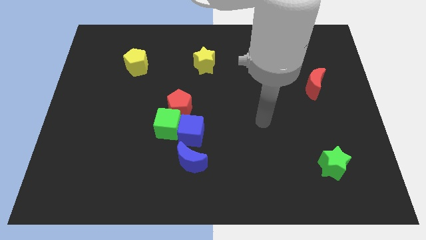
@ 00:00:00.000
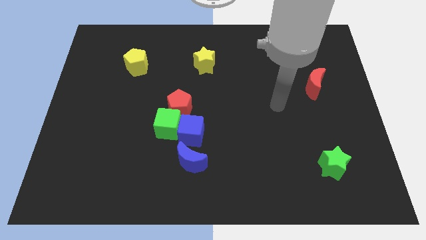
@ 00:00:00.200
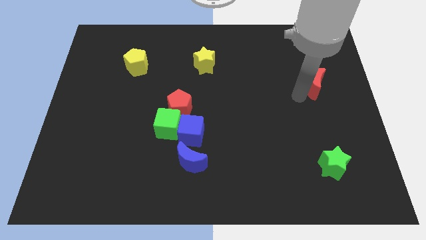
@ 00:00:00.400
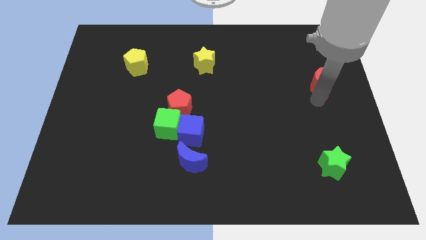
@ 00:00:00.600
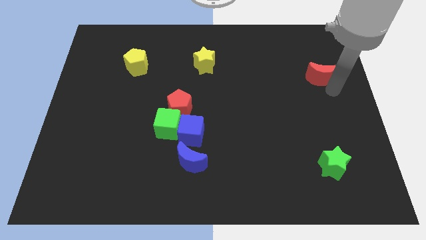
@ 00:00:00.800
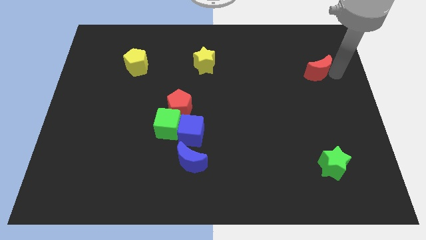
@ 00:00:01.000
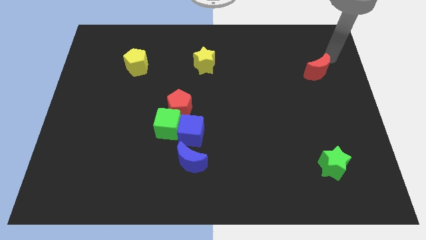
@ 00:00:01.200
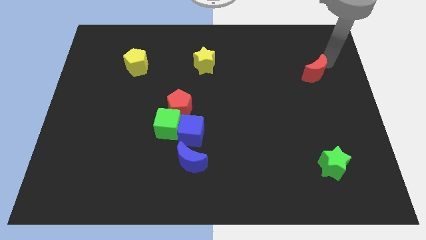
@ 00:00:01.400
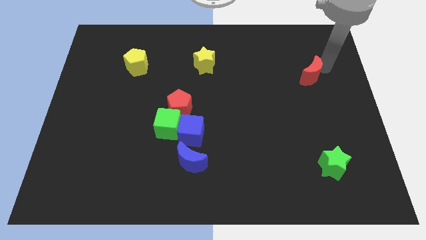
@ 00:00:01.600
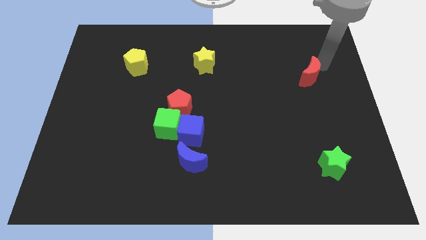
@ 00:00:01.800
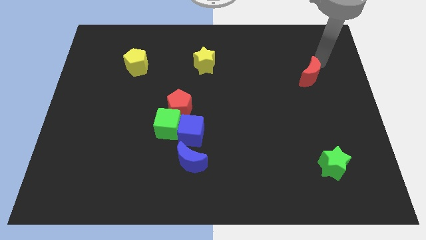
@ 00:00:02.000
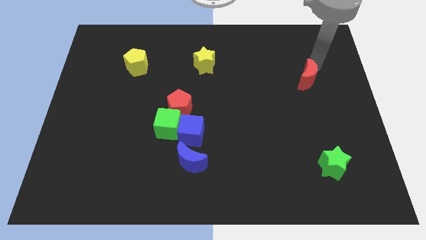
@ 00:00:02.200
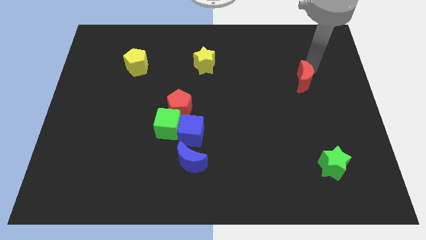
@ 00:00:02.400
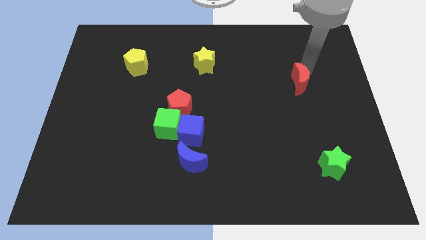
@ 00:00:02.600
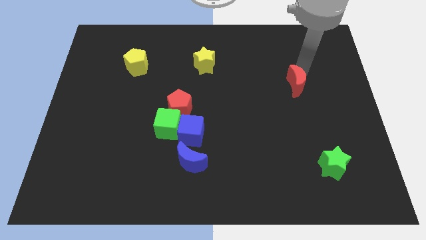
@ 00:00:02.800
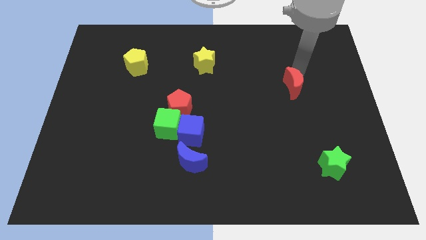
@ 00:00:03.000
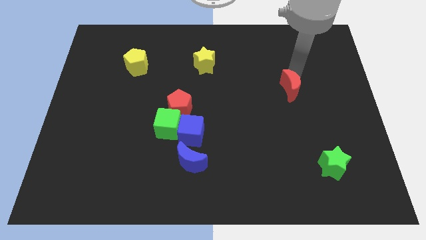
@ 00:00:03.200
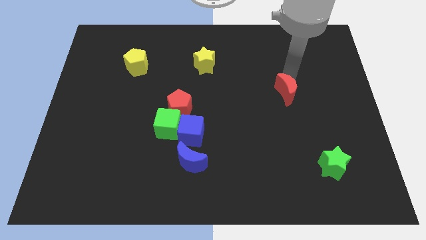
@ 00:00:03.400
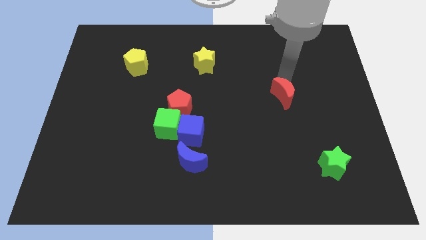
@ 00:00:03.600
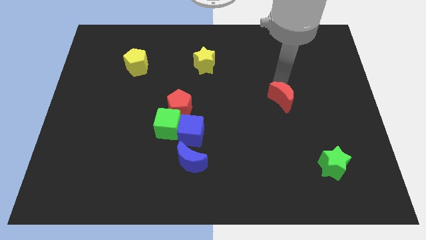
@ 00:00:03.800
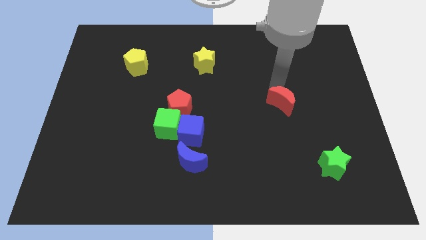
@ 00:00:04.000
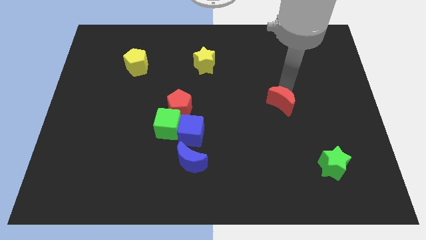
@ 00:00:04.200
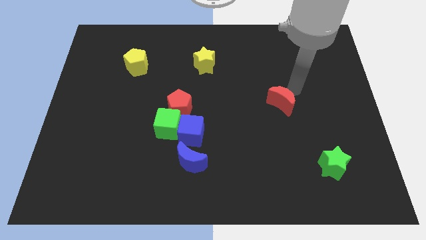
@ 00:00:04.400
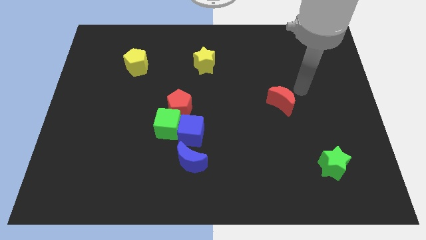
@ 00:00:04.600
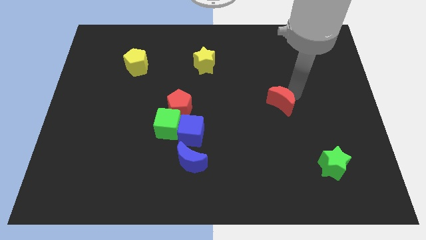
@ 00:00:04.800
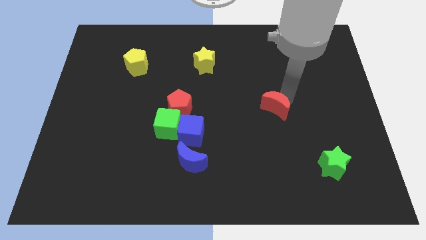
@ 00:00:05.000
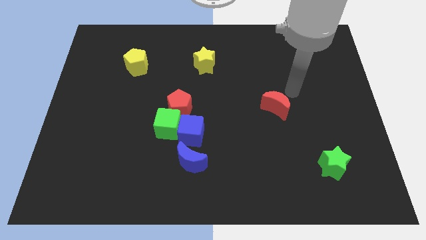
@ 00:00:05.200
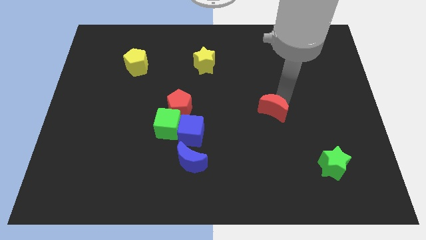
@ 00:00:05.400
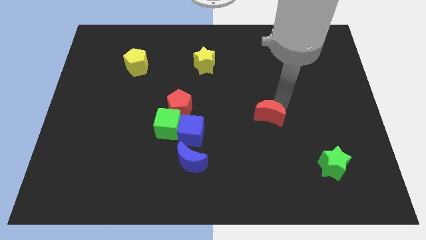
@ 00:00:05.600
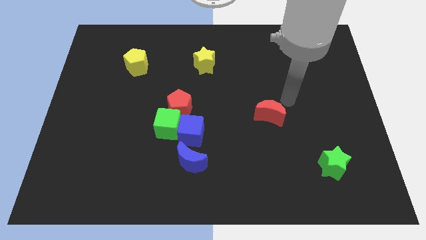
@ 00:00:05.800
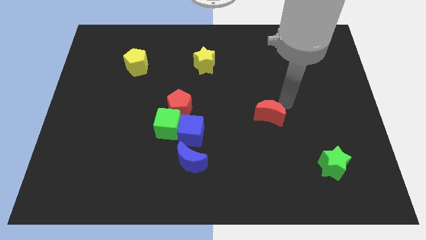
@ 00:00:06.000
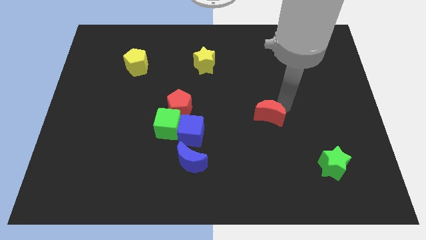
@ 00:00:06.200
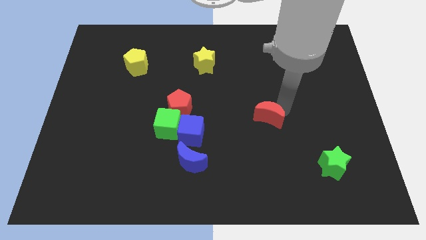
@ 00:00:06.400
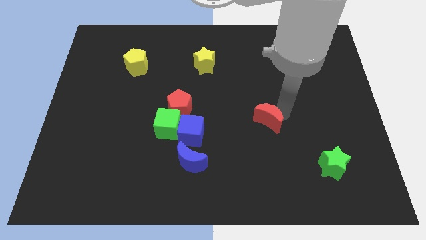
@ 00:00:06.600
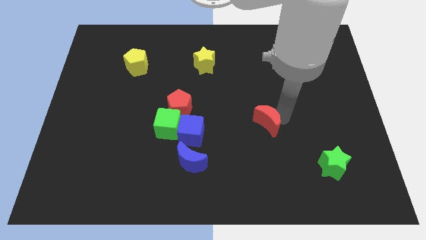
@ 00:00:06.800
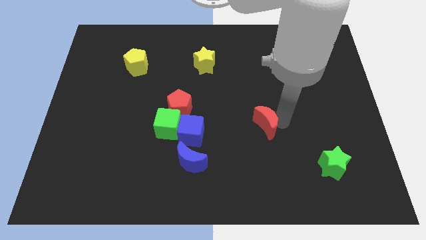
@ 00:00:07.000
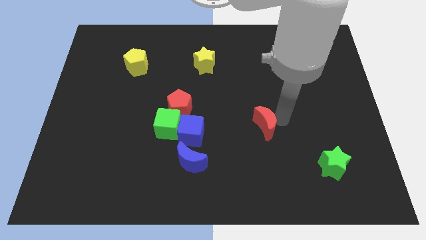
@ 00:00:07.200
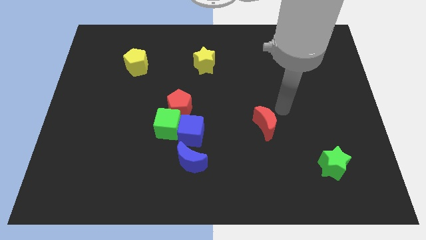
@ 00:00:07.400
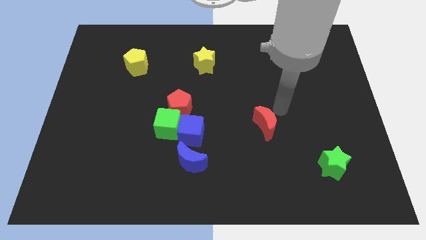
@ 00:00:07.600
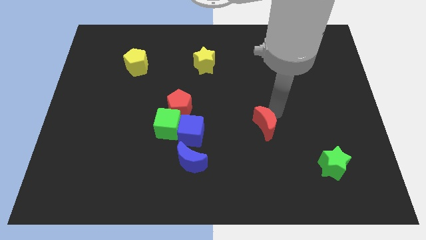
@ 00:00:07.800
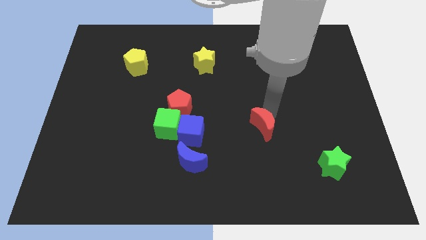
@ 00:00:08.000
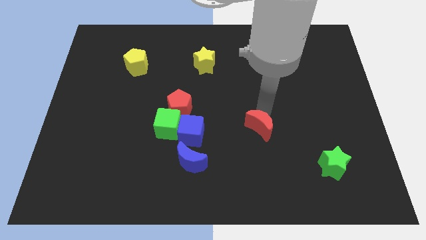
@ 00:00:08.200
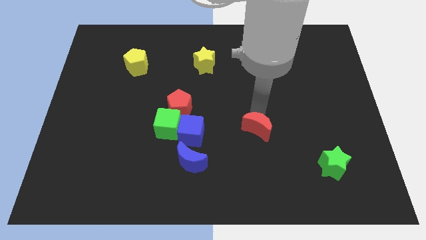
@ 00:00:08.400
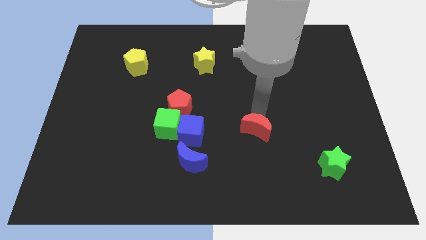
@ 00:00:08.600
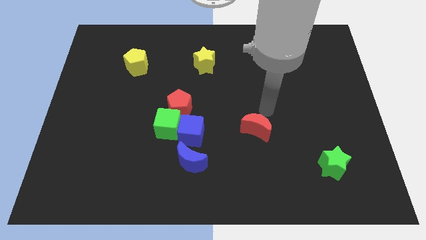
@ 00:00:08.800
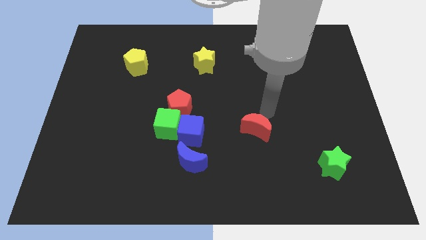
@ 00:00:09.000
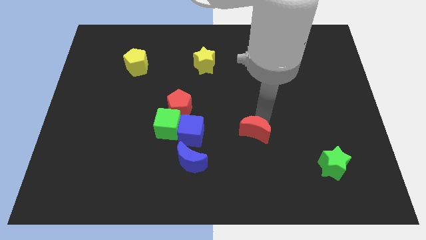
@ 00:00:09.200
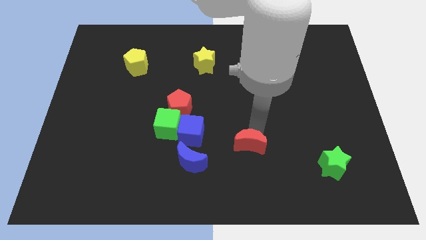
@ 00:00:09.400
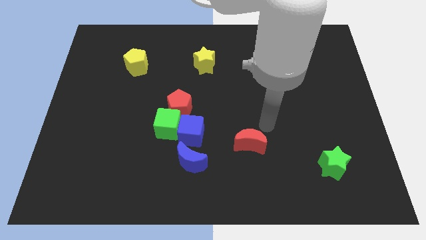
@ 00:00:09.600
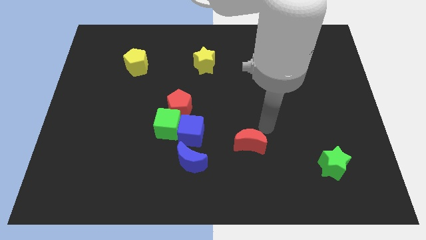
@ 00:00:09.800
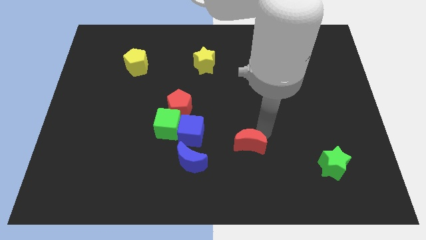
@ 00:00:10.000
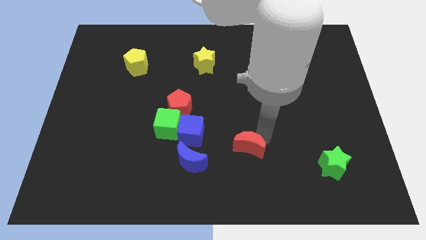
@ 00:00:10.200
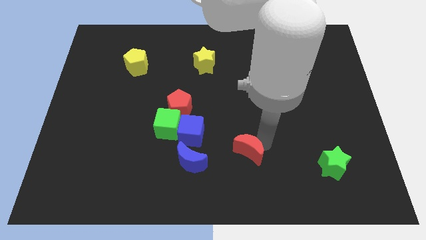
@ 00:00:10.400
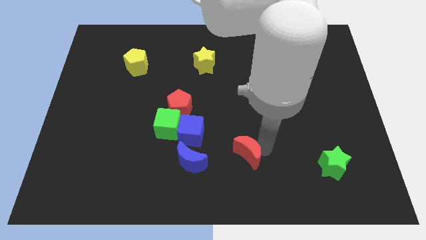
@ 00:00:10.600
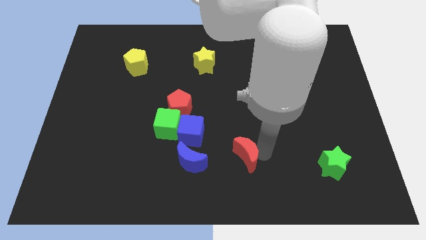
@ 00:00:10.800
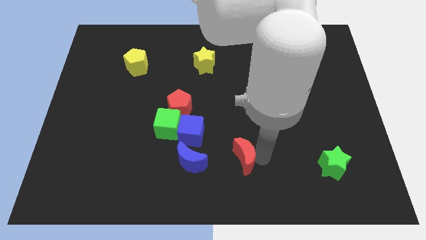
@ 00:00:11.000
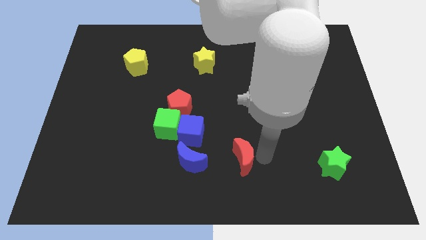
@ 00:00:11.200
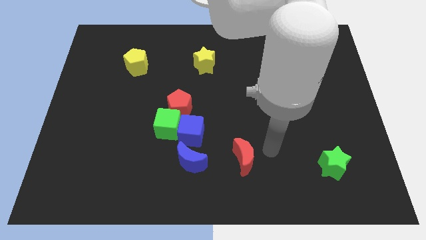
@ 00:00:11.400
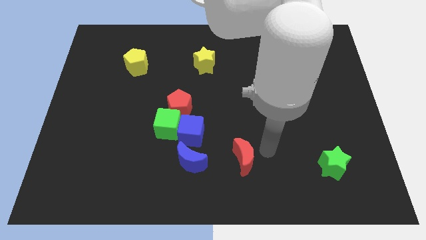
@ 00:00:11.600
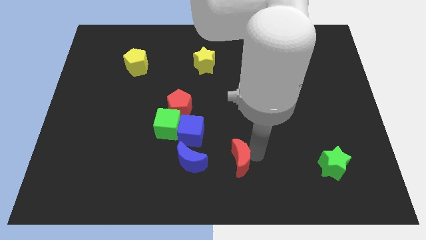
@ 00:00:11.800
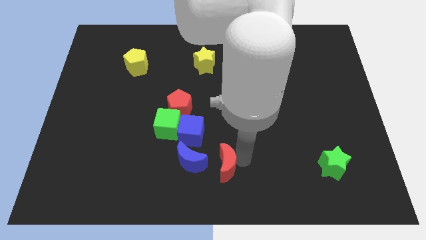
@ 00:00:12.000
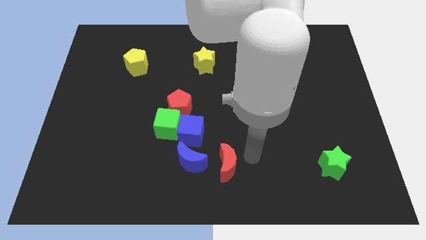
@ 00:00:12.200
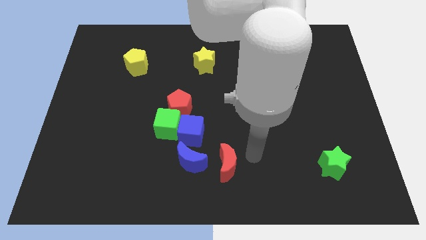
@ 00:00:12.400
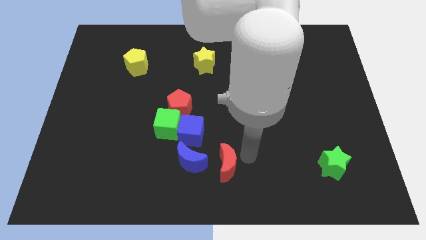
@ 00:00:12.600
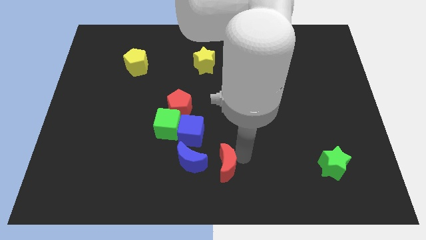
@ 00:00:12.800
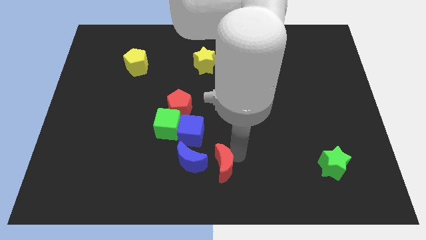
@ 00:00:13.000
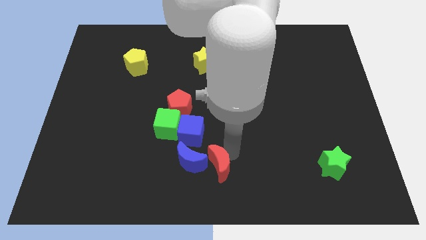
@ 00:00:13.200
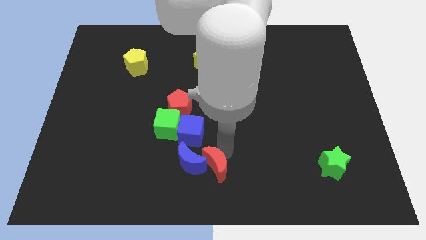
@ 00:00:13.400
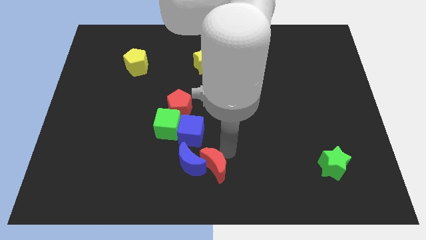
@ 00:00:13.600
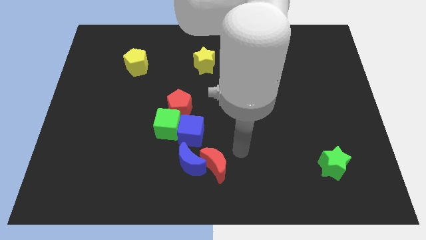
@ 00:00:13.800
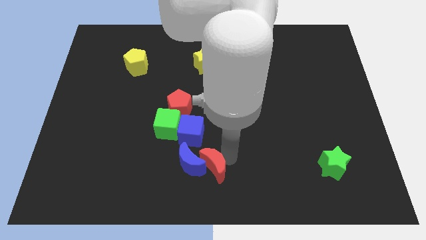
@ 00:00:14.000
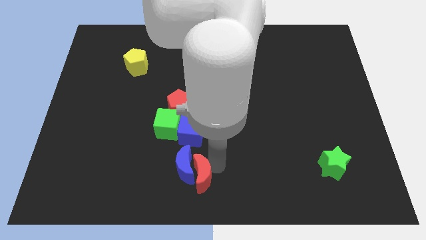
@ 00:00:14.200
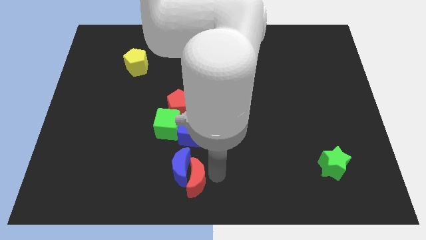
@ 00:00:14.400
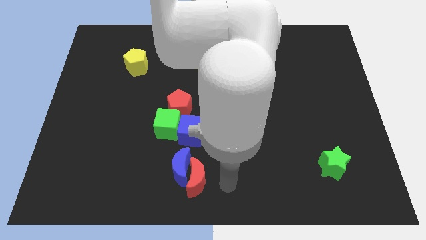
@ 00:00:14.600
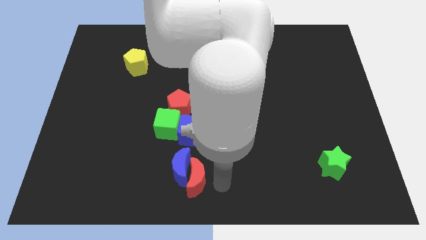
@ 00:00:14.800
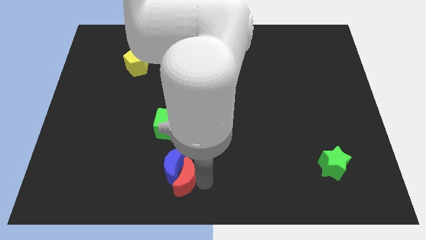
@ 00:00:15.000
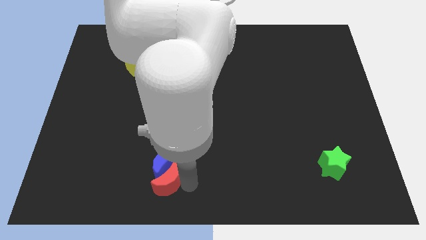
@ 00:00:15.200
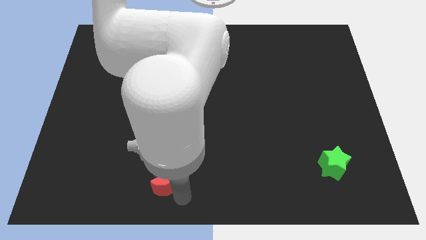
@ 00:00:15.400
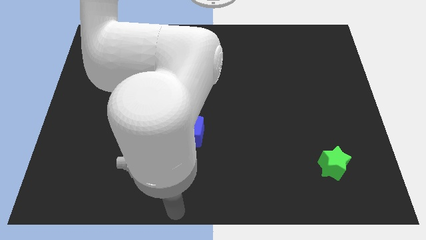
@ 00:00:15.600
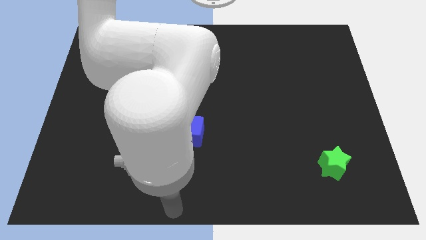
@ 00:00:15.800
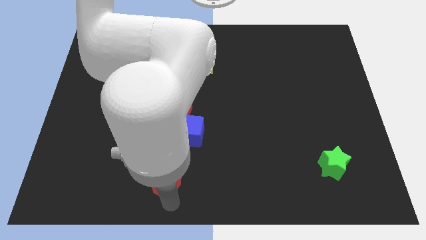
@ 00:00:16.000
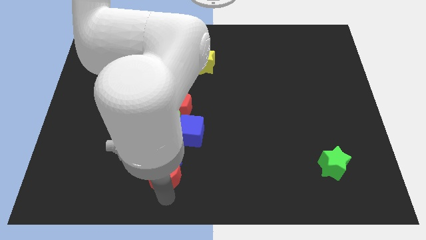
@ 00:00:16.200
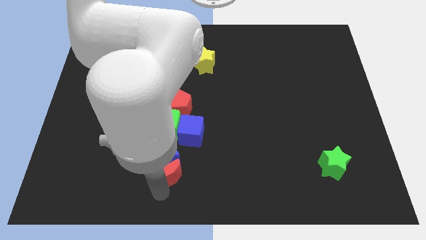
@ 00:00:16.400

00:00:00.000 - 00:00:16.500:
slide the red moon to the bottom left of the blue cube
